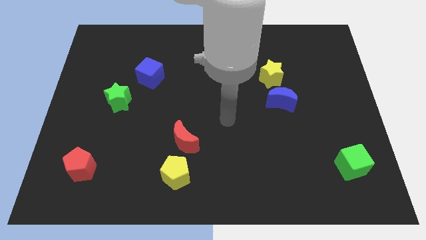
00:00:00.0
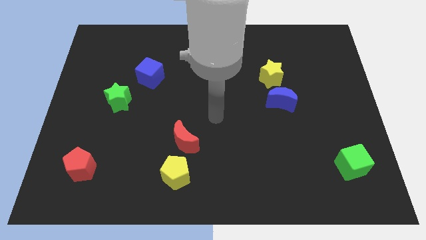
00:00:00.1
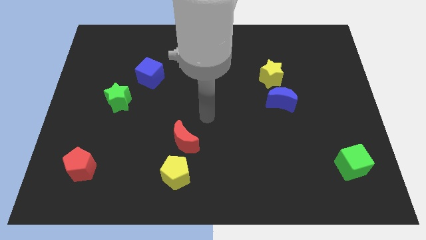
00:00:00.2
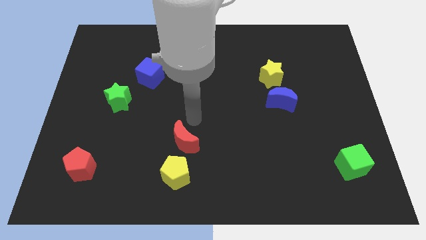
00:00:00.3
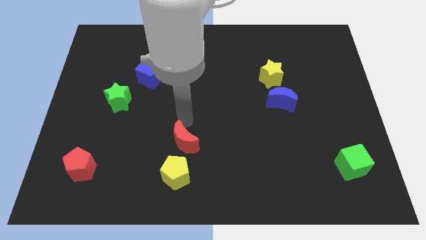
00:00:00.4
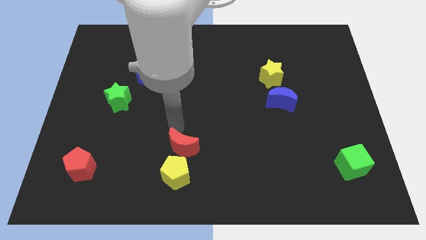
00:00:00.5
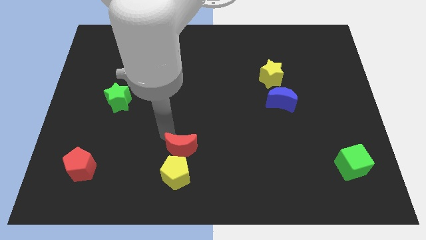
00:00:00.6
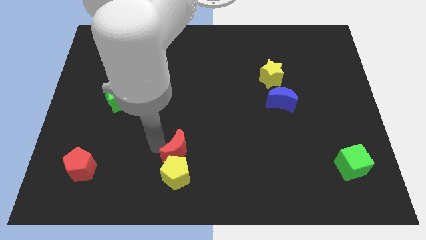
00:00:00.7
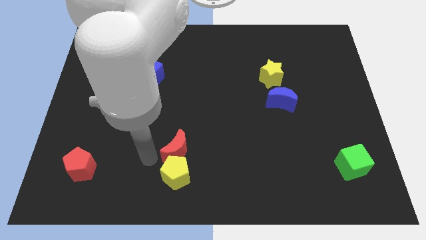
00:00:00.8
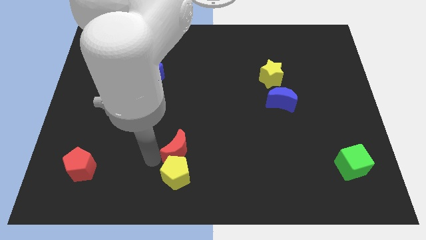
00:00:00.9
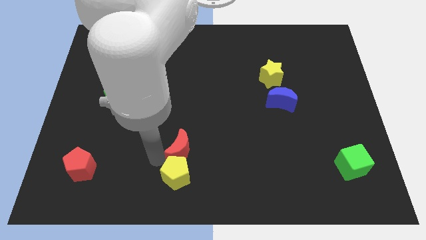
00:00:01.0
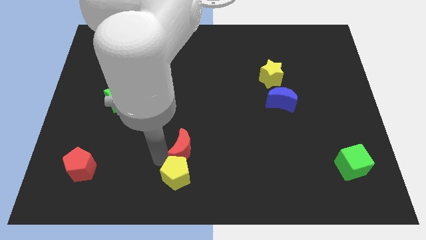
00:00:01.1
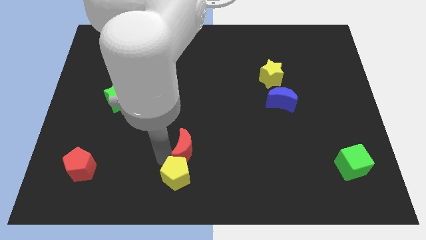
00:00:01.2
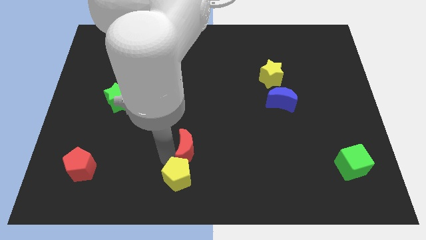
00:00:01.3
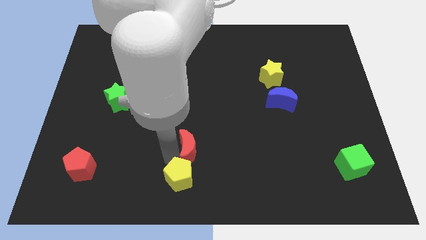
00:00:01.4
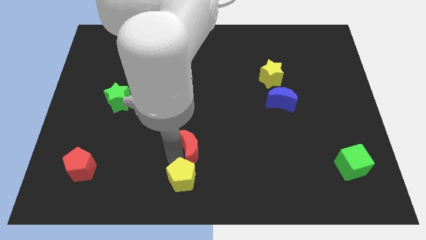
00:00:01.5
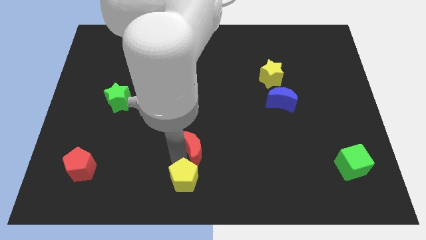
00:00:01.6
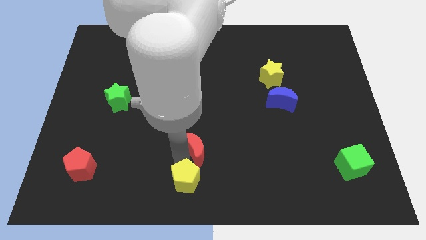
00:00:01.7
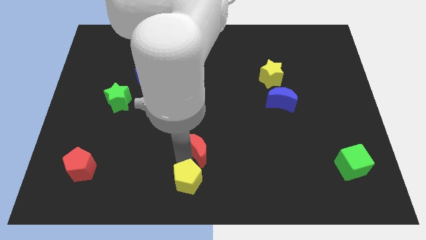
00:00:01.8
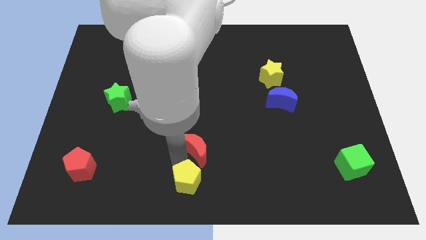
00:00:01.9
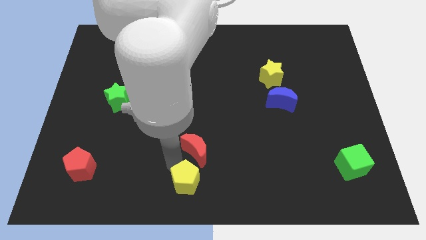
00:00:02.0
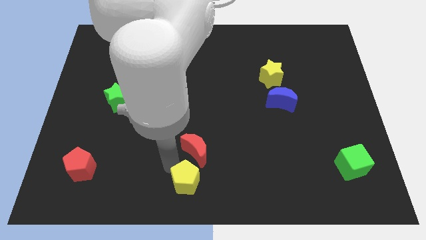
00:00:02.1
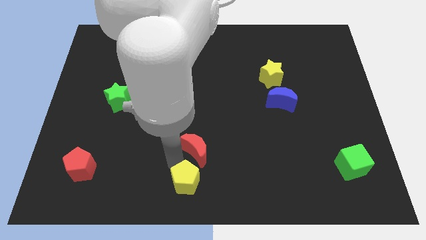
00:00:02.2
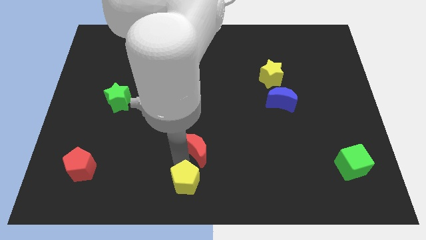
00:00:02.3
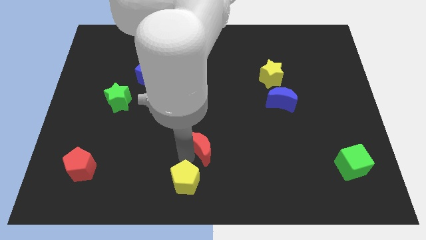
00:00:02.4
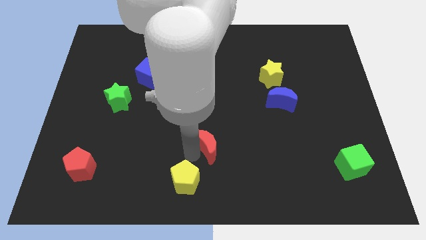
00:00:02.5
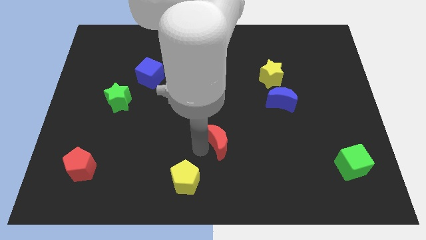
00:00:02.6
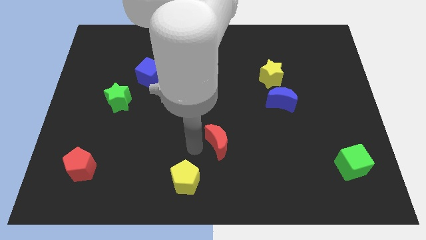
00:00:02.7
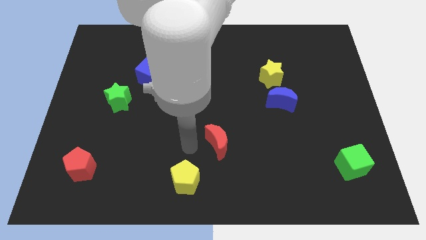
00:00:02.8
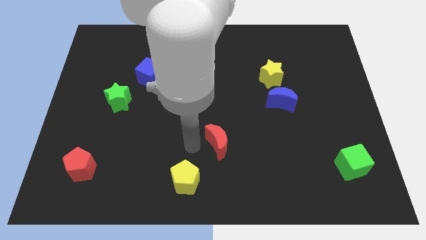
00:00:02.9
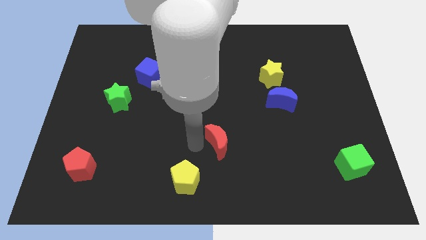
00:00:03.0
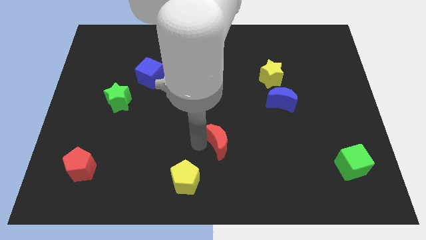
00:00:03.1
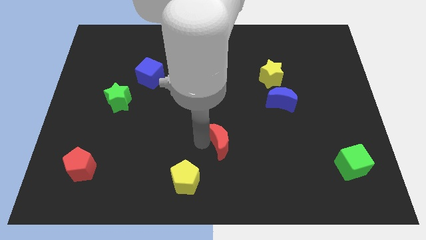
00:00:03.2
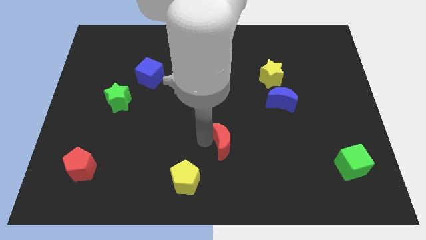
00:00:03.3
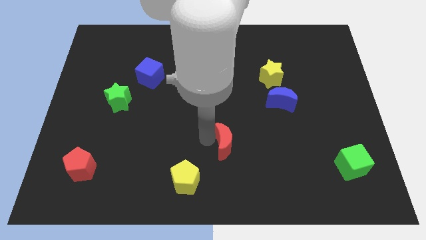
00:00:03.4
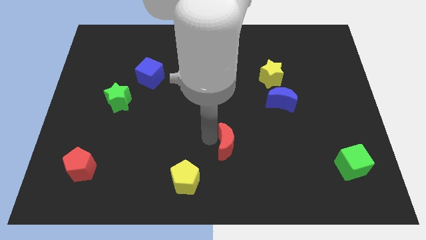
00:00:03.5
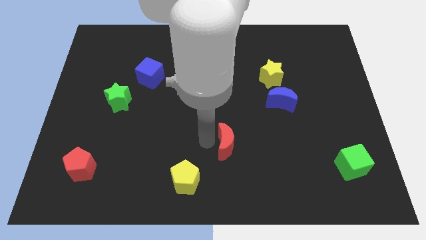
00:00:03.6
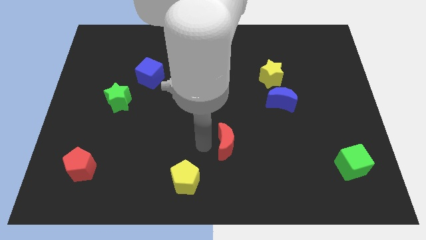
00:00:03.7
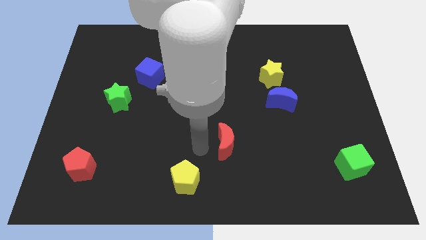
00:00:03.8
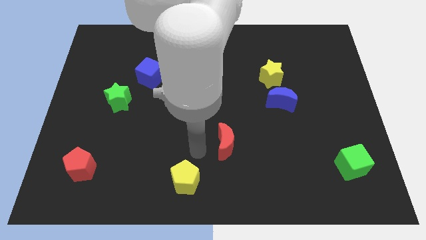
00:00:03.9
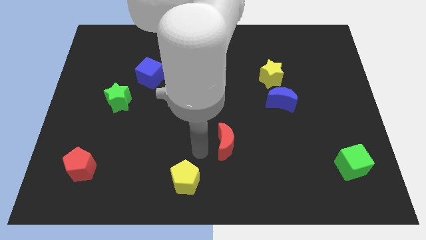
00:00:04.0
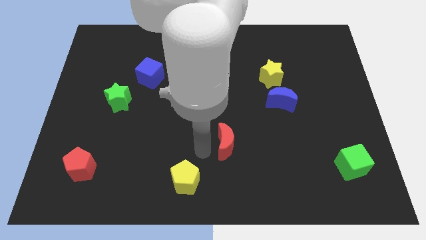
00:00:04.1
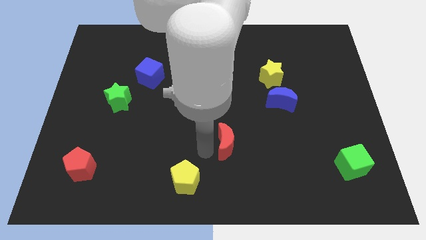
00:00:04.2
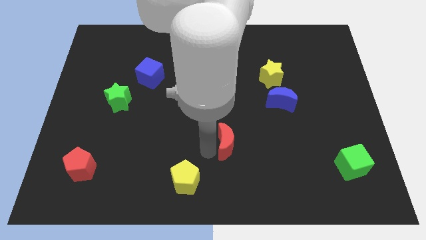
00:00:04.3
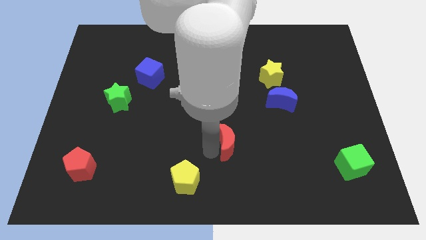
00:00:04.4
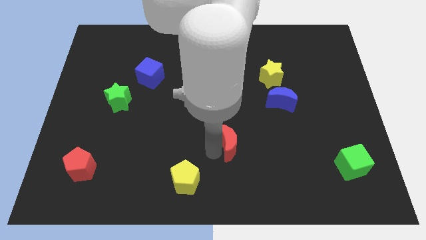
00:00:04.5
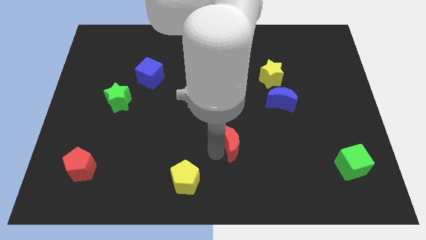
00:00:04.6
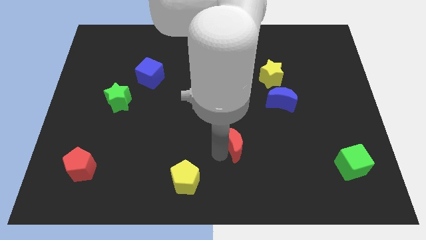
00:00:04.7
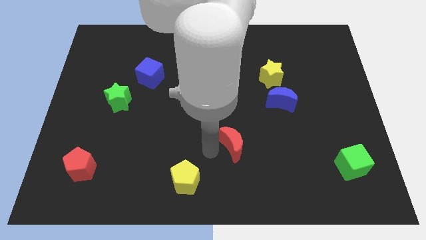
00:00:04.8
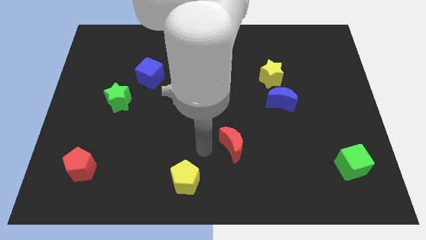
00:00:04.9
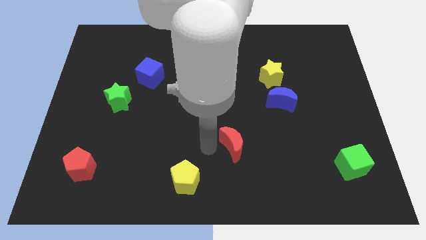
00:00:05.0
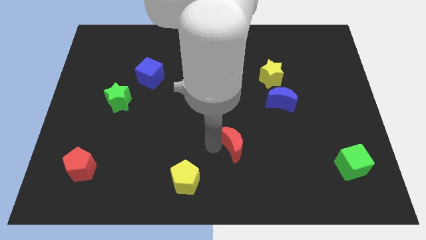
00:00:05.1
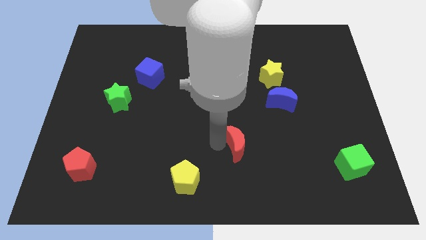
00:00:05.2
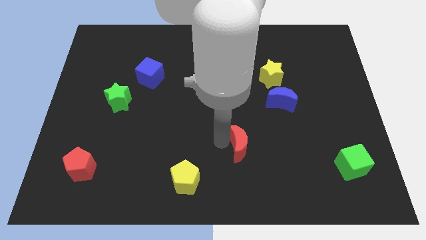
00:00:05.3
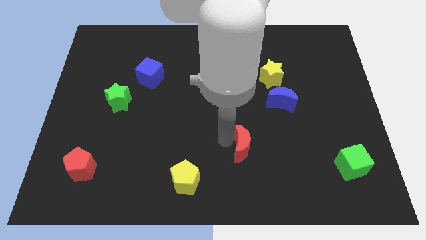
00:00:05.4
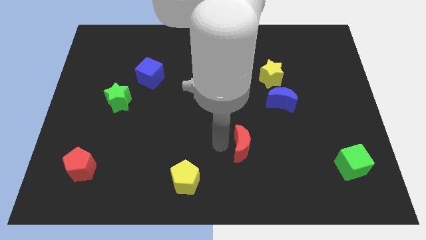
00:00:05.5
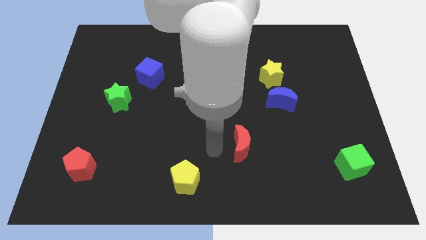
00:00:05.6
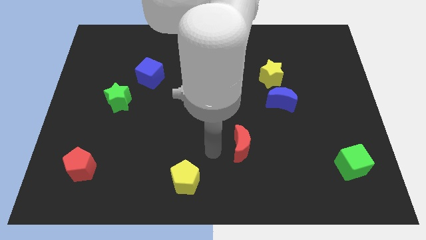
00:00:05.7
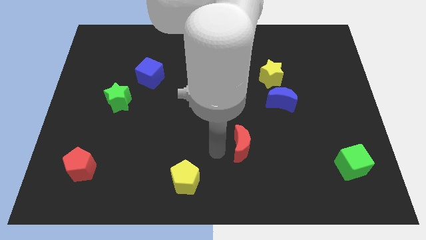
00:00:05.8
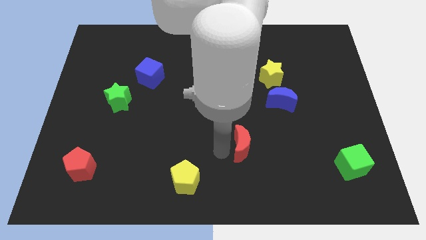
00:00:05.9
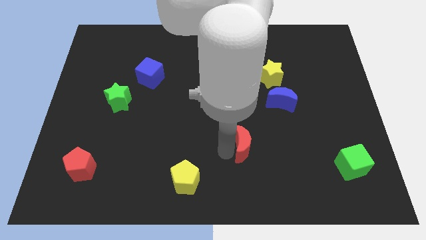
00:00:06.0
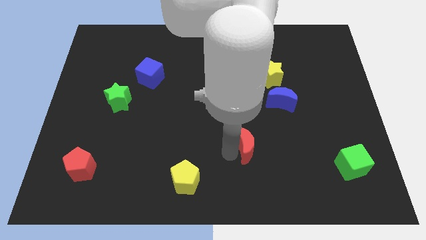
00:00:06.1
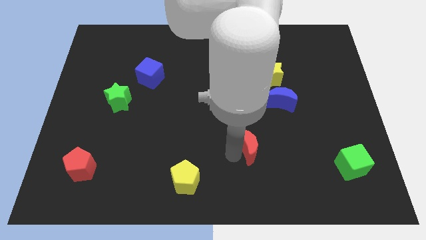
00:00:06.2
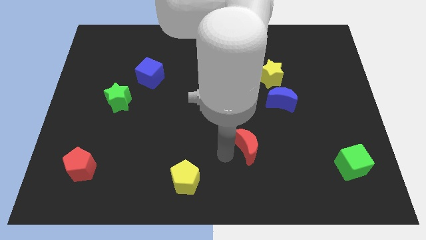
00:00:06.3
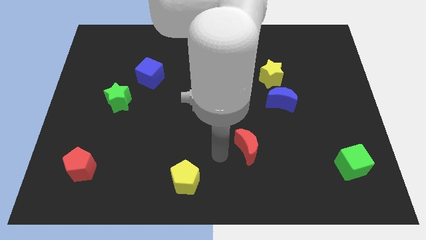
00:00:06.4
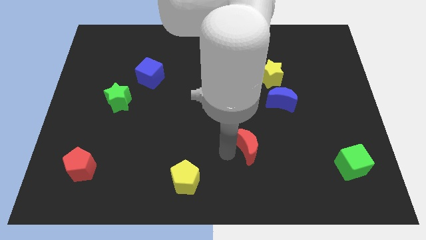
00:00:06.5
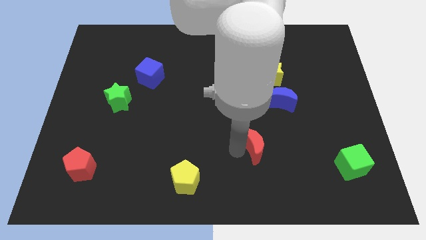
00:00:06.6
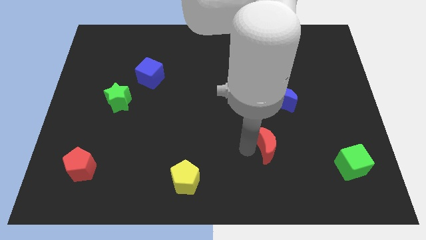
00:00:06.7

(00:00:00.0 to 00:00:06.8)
move the red moon below the blue moon

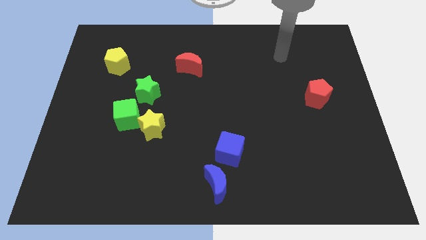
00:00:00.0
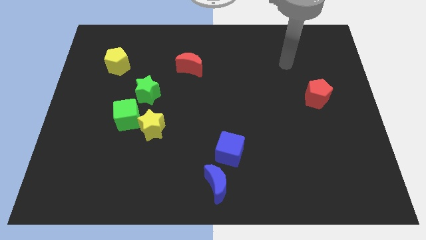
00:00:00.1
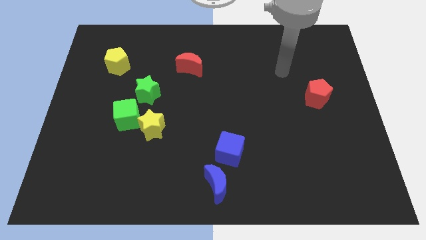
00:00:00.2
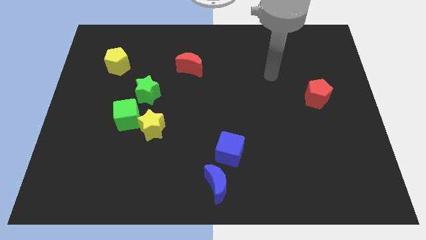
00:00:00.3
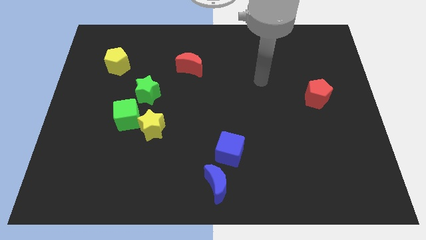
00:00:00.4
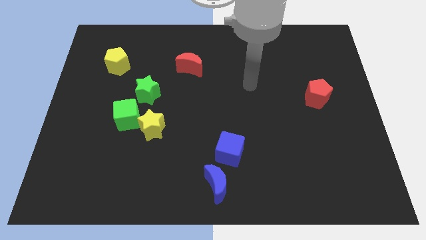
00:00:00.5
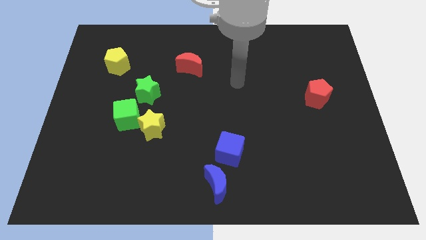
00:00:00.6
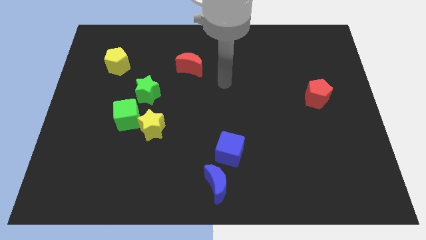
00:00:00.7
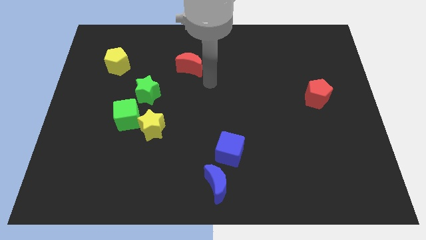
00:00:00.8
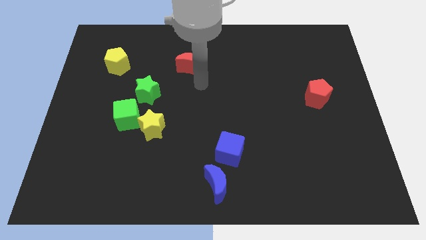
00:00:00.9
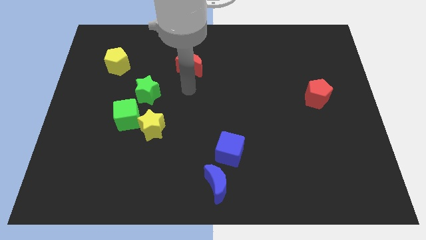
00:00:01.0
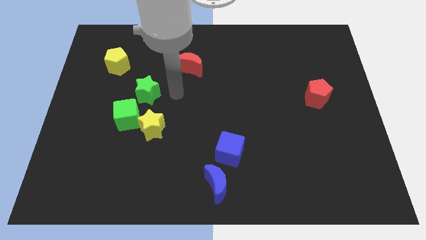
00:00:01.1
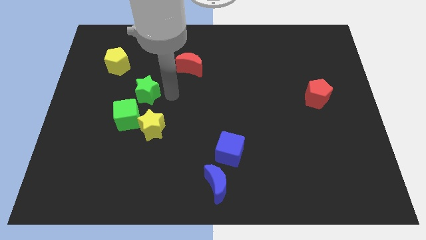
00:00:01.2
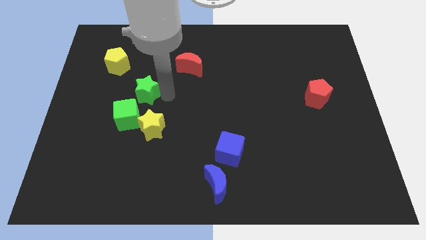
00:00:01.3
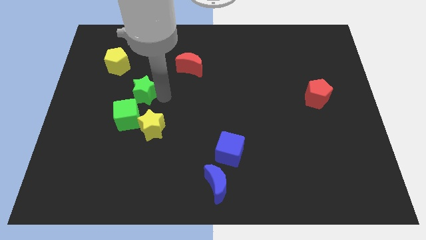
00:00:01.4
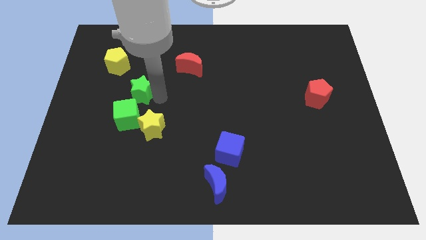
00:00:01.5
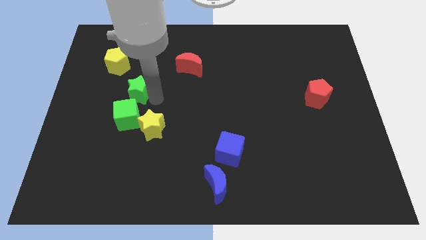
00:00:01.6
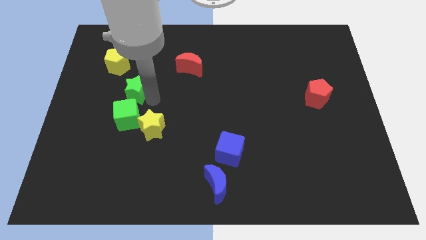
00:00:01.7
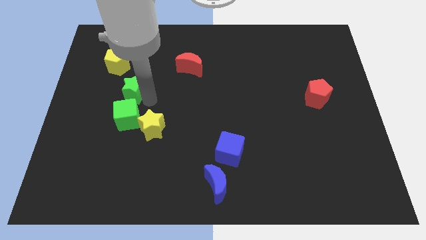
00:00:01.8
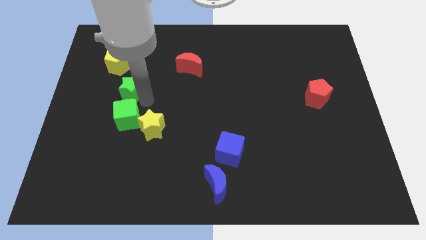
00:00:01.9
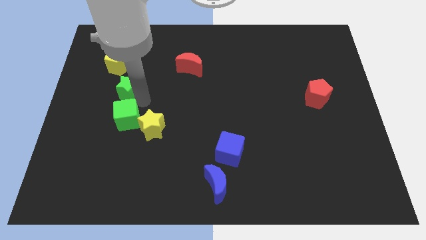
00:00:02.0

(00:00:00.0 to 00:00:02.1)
slide the green star to the bottom side of the yellow pentagon
